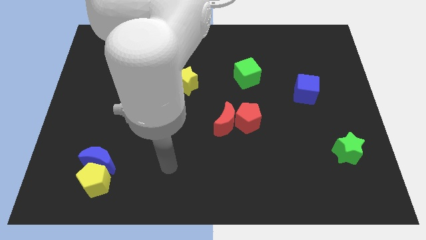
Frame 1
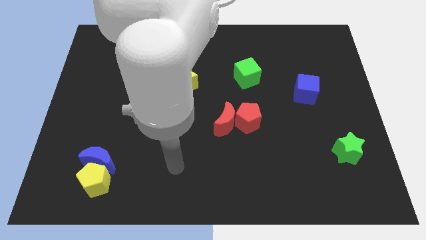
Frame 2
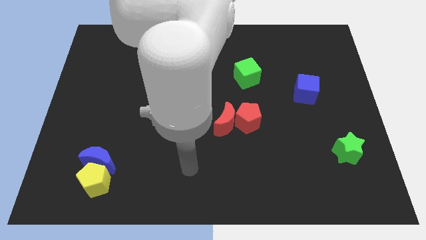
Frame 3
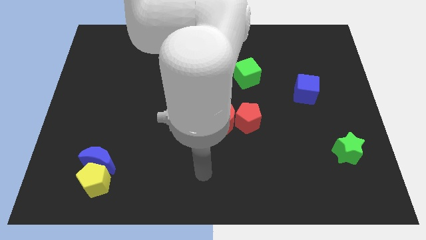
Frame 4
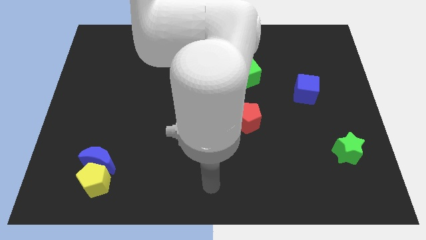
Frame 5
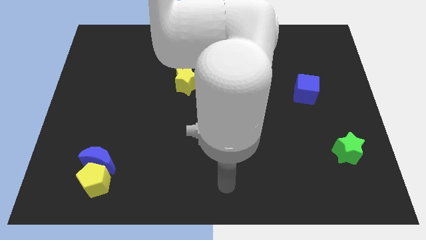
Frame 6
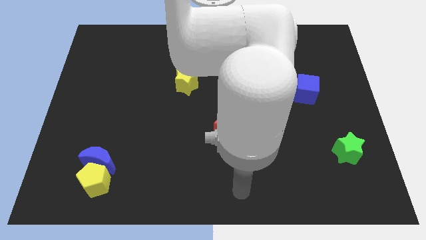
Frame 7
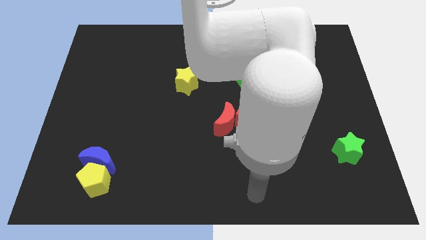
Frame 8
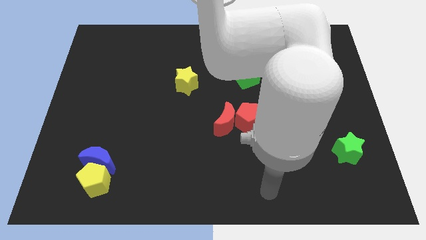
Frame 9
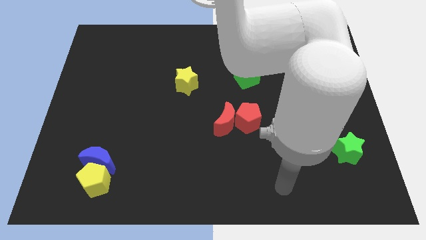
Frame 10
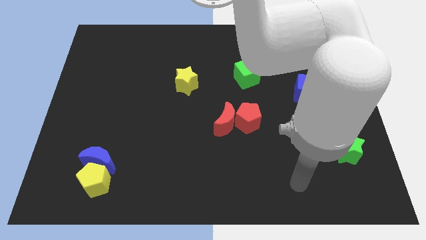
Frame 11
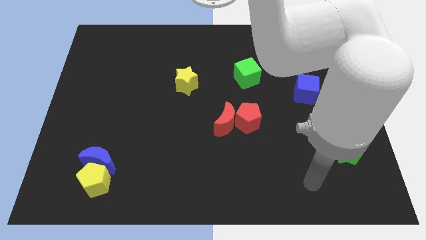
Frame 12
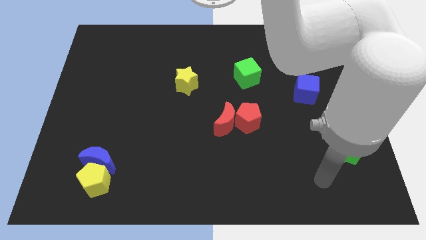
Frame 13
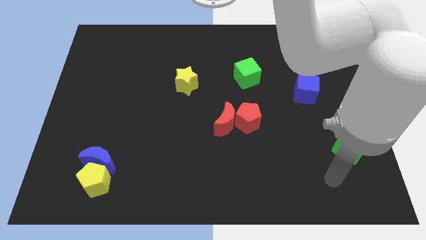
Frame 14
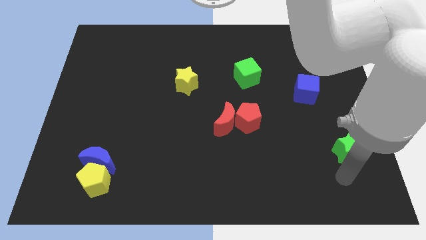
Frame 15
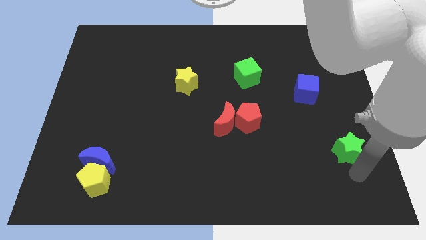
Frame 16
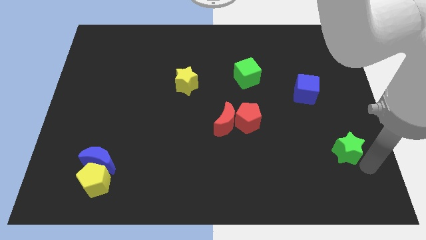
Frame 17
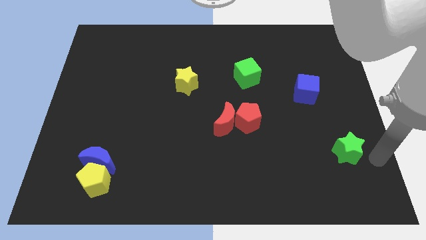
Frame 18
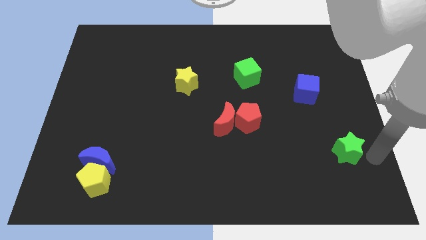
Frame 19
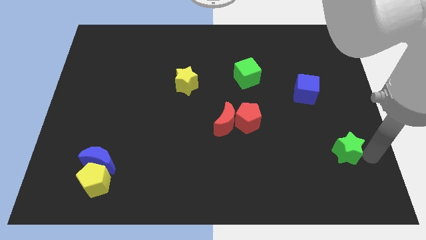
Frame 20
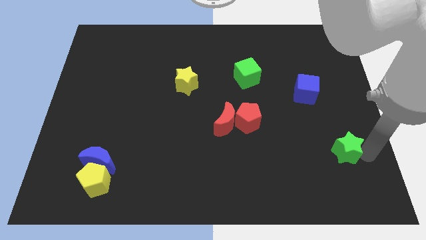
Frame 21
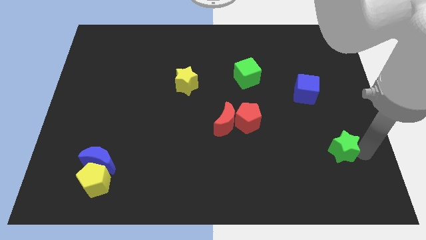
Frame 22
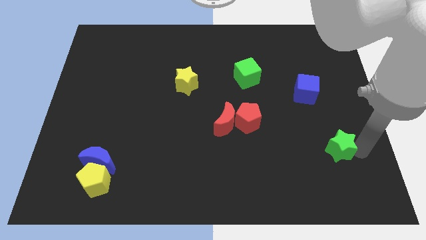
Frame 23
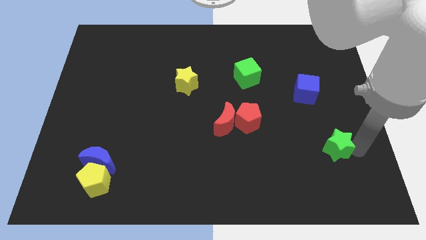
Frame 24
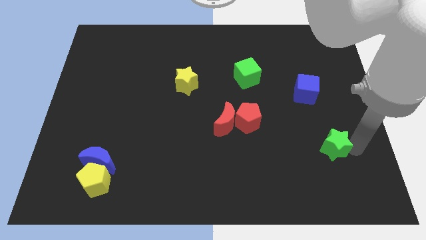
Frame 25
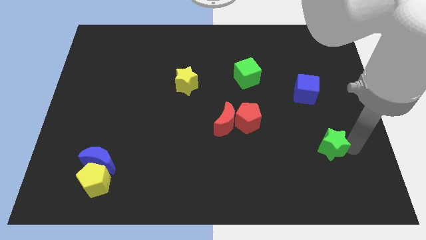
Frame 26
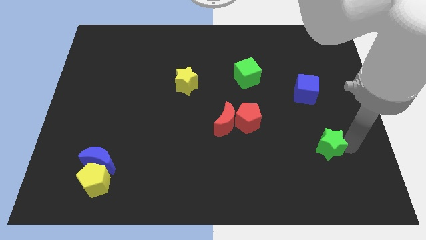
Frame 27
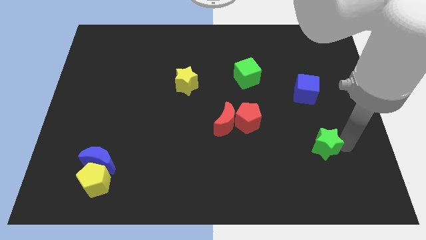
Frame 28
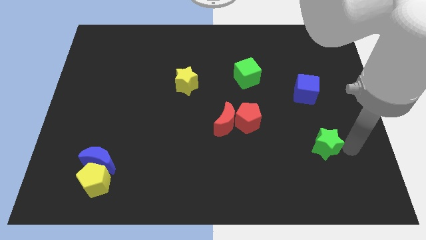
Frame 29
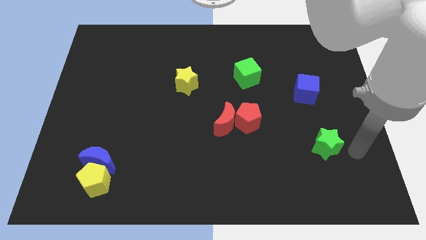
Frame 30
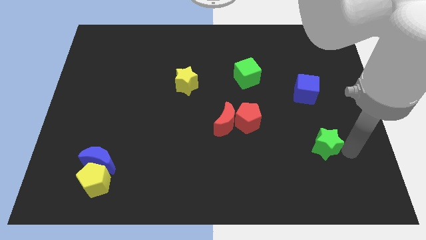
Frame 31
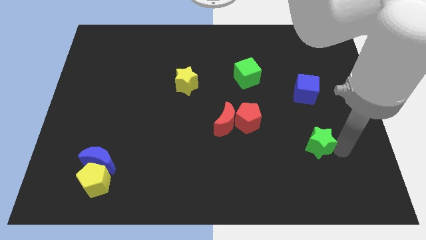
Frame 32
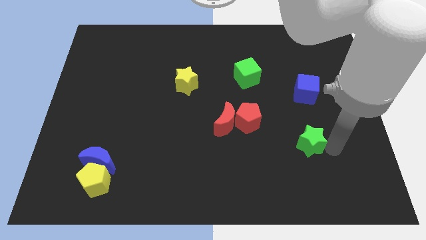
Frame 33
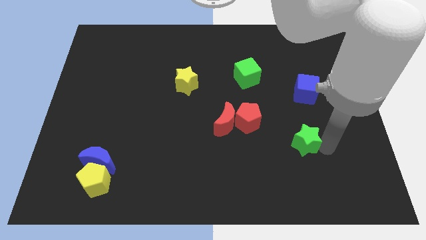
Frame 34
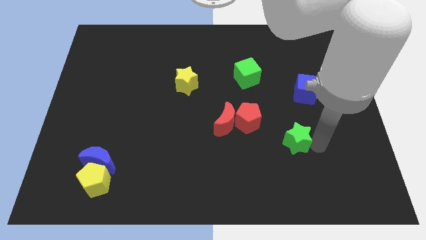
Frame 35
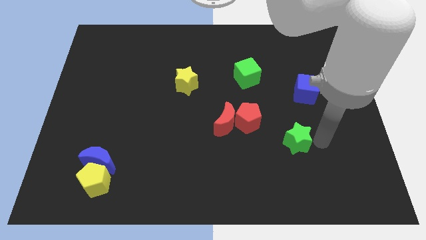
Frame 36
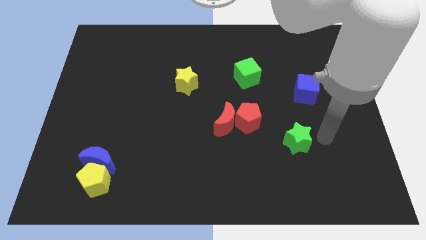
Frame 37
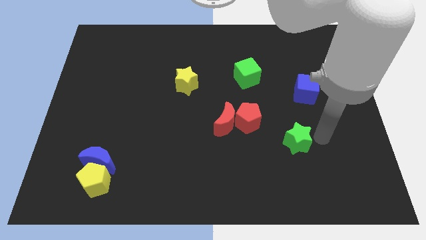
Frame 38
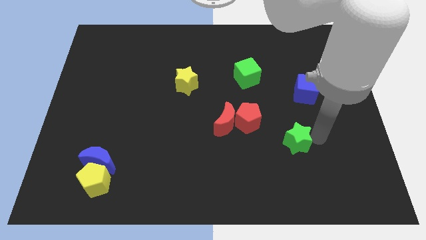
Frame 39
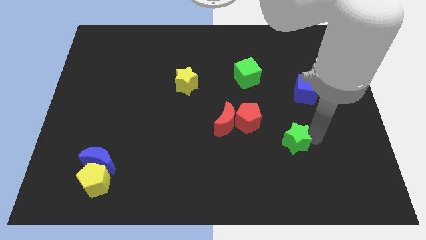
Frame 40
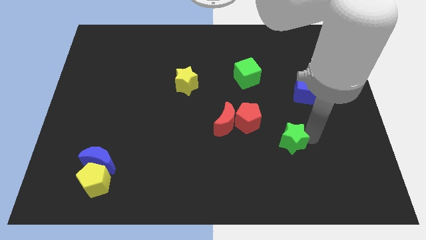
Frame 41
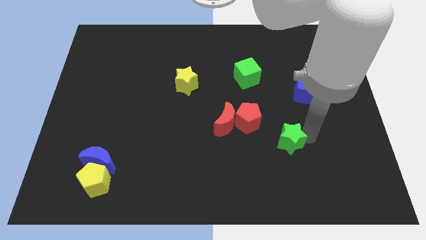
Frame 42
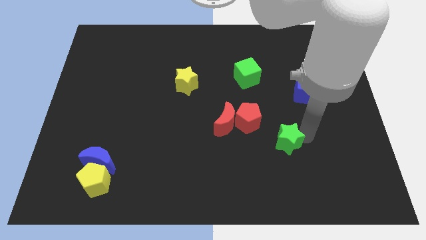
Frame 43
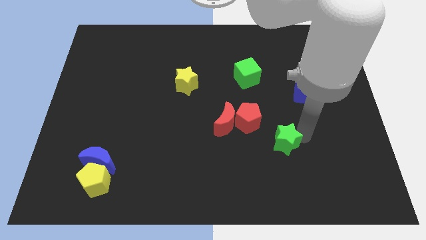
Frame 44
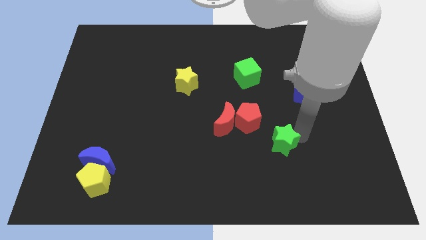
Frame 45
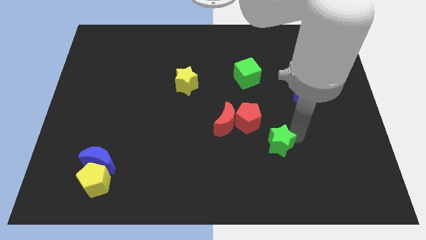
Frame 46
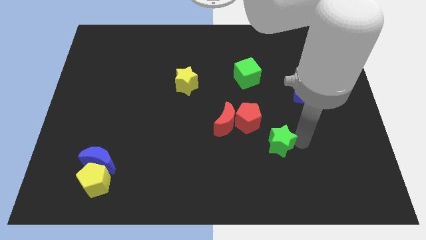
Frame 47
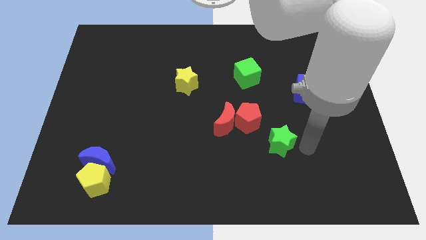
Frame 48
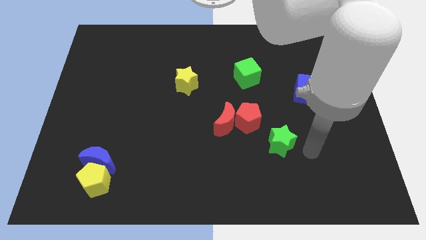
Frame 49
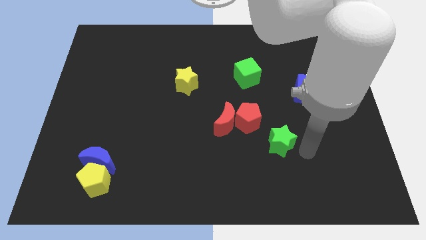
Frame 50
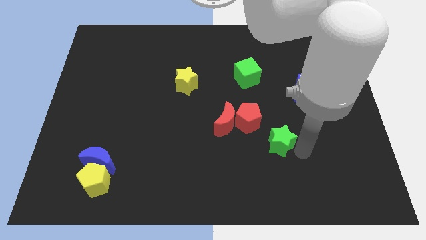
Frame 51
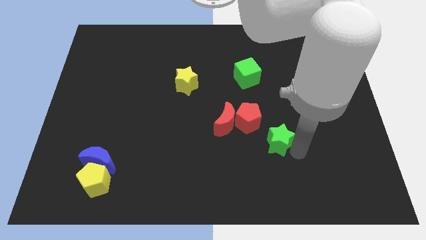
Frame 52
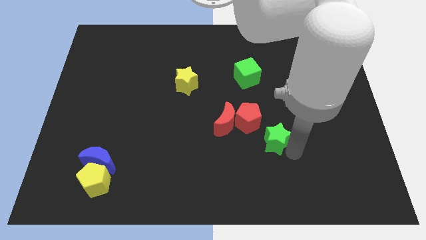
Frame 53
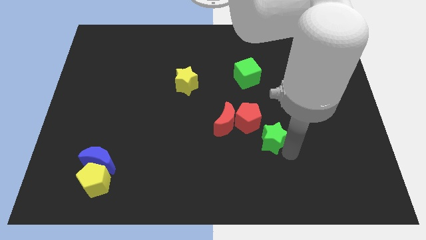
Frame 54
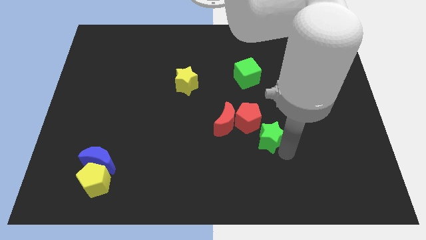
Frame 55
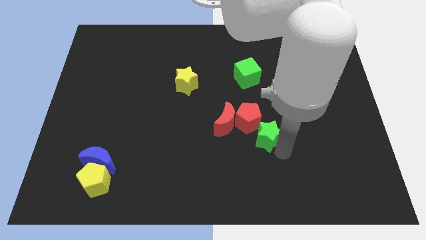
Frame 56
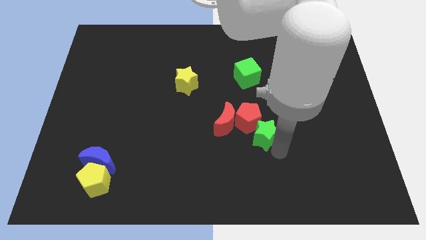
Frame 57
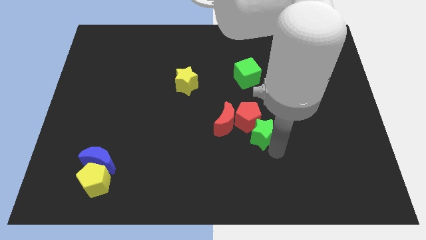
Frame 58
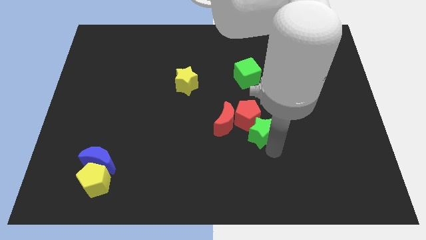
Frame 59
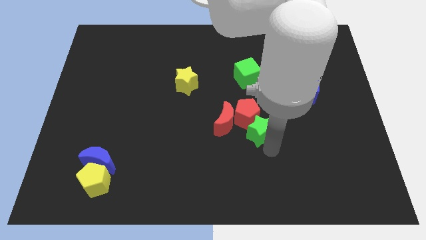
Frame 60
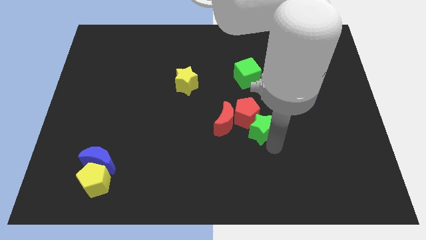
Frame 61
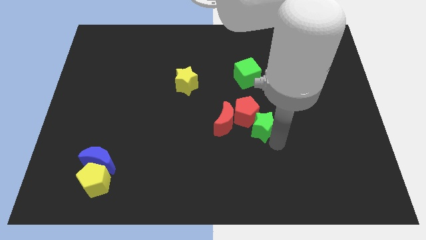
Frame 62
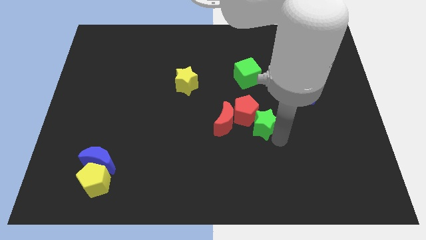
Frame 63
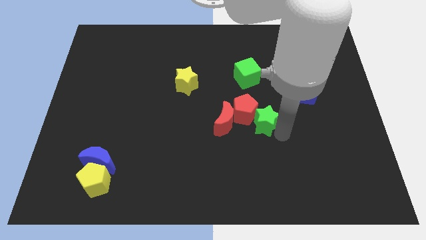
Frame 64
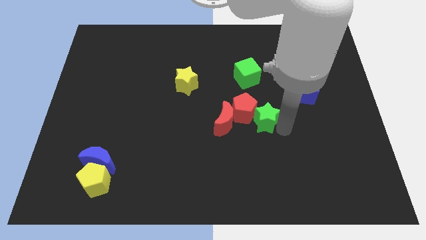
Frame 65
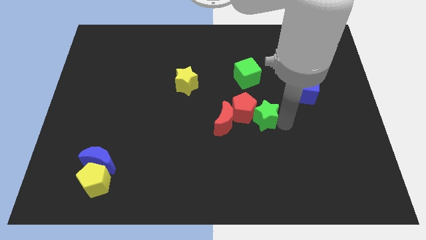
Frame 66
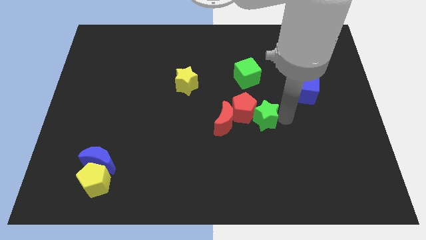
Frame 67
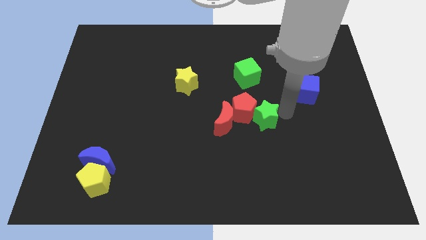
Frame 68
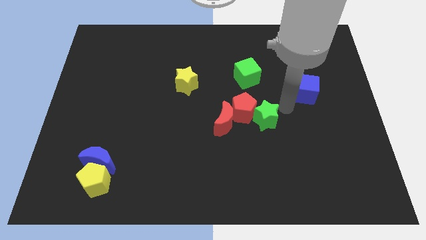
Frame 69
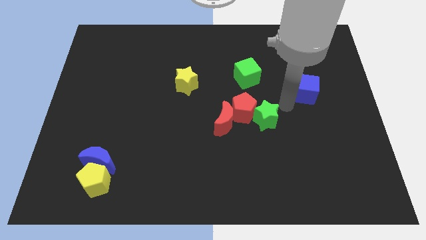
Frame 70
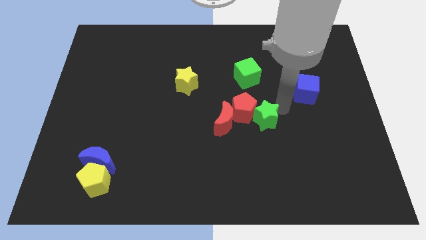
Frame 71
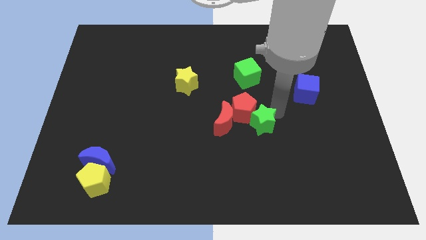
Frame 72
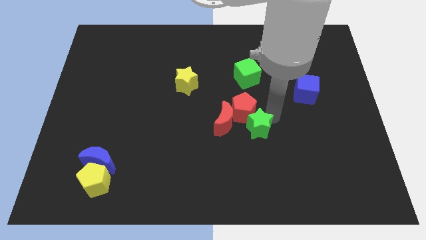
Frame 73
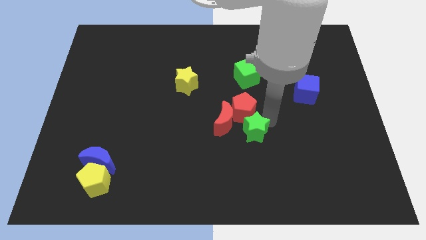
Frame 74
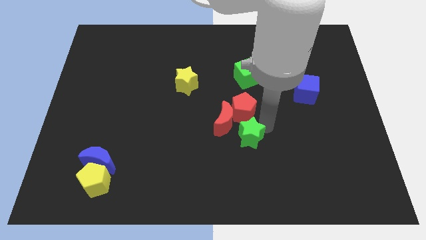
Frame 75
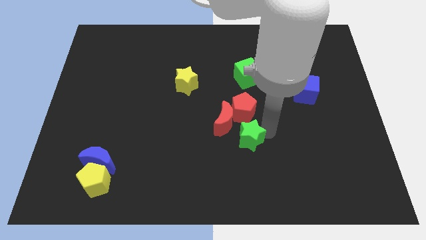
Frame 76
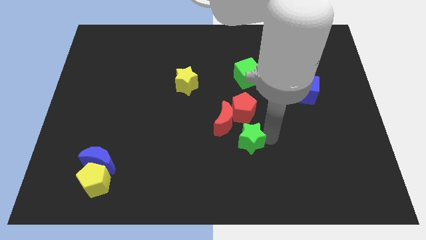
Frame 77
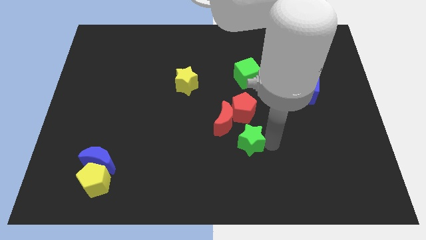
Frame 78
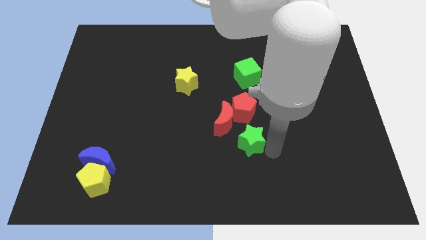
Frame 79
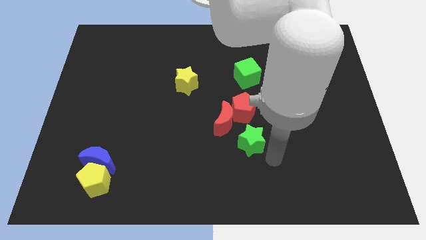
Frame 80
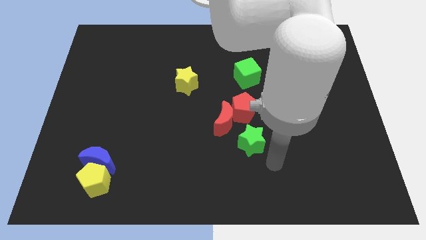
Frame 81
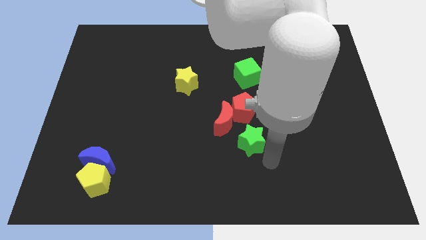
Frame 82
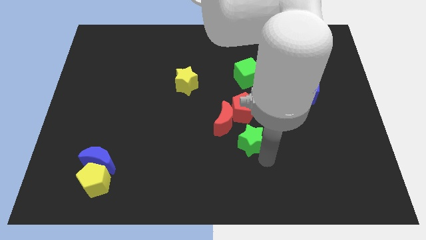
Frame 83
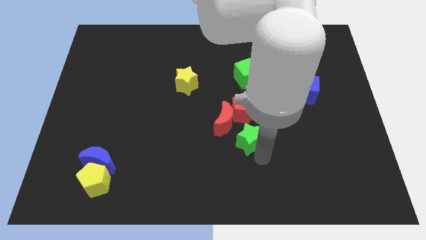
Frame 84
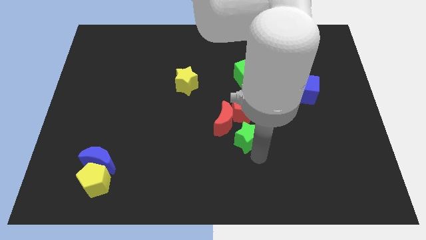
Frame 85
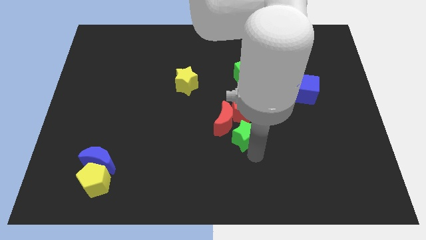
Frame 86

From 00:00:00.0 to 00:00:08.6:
move the green star next to the red moon
